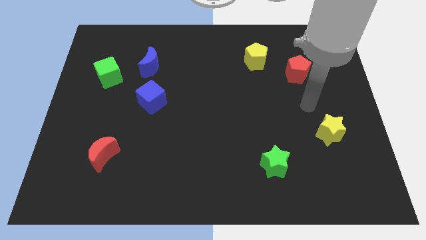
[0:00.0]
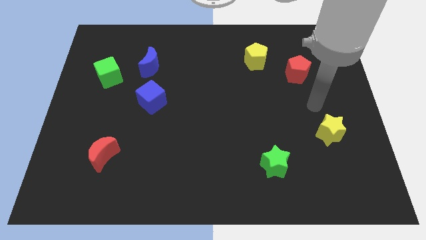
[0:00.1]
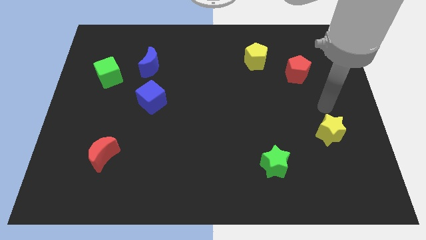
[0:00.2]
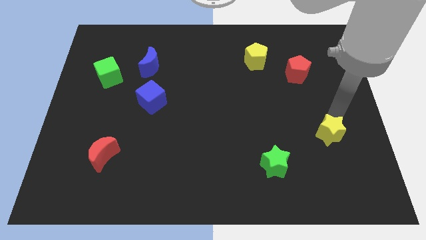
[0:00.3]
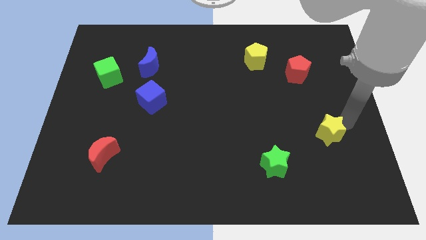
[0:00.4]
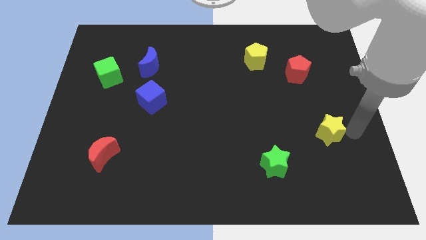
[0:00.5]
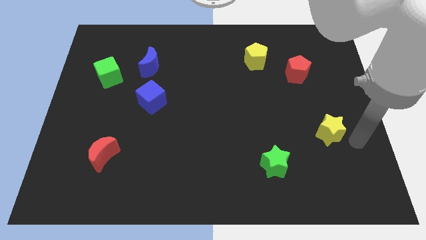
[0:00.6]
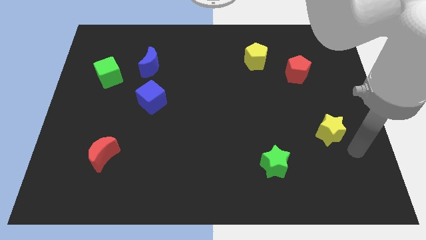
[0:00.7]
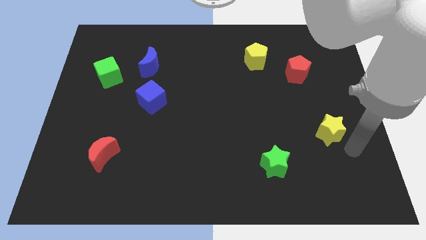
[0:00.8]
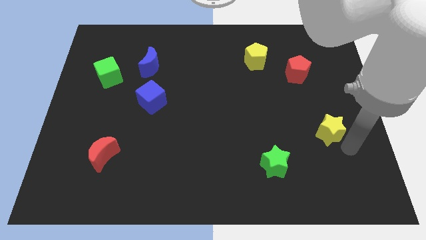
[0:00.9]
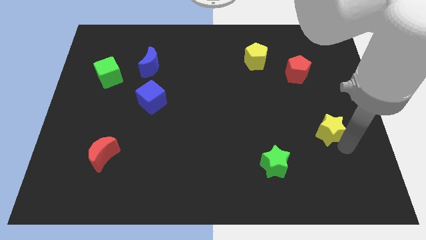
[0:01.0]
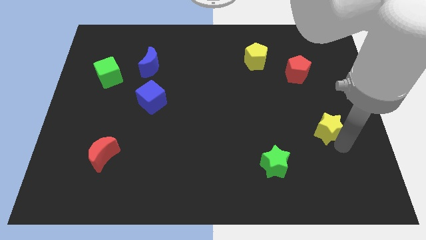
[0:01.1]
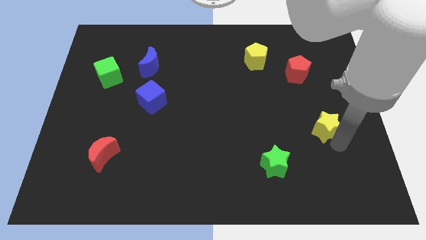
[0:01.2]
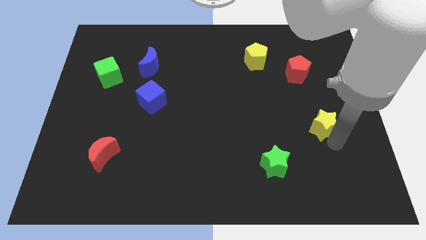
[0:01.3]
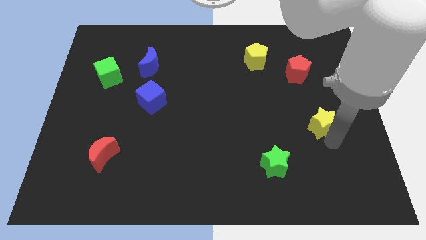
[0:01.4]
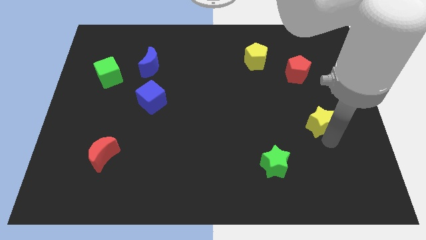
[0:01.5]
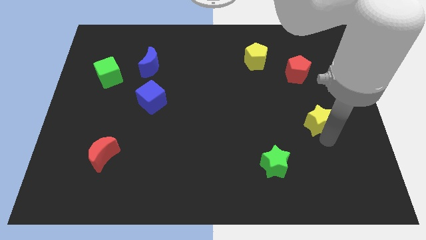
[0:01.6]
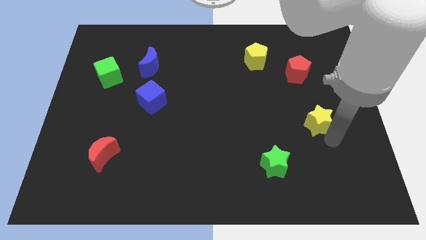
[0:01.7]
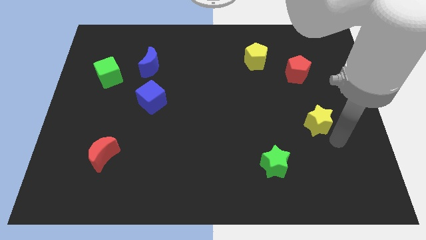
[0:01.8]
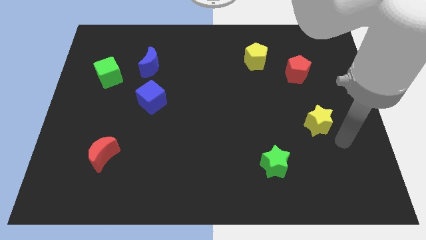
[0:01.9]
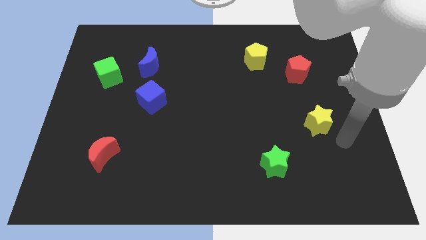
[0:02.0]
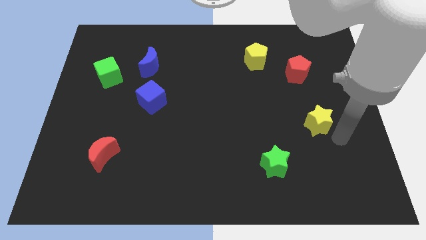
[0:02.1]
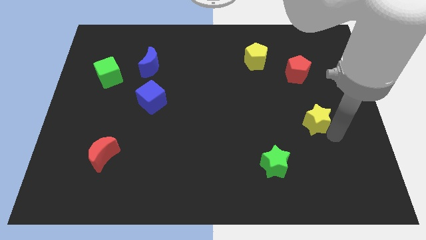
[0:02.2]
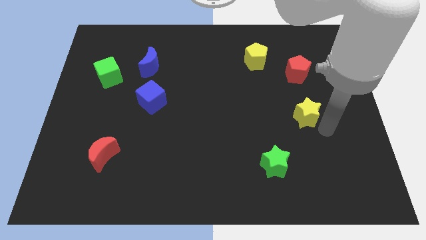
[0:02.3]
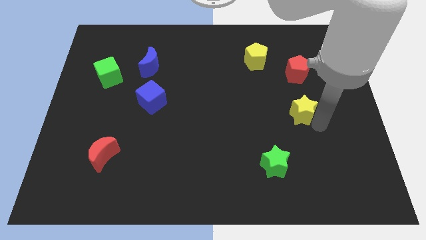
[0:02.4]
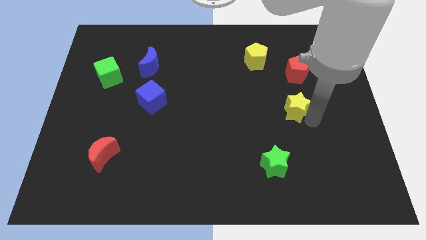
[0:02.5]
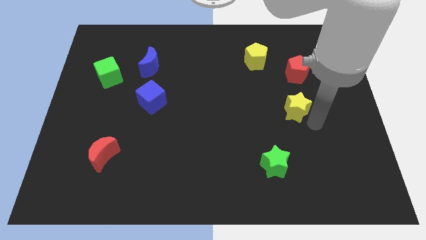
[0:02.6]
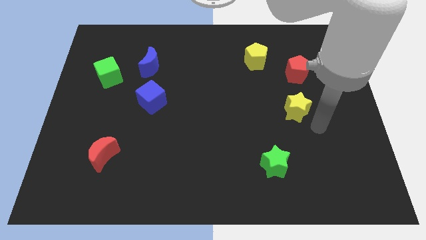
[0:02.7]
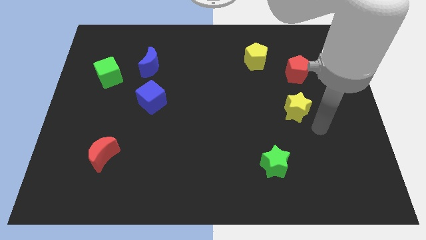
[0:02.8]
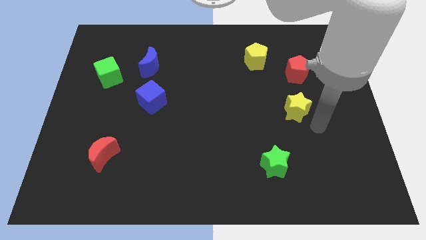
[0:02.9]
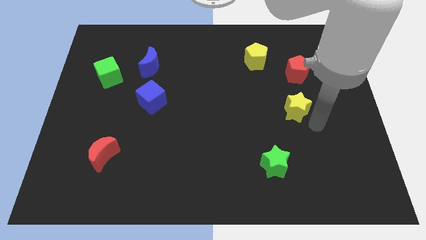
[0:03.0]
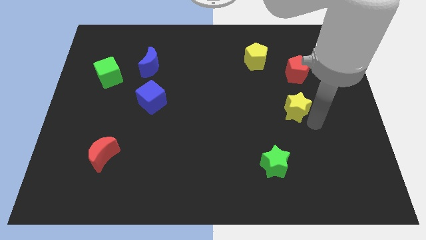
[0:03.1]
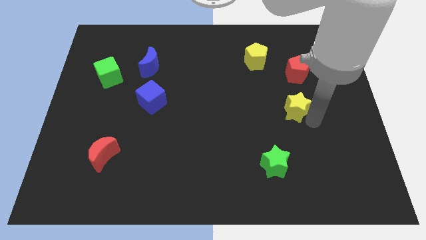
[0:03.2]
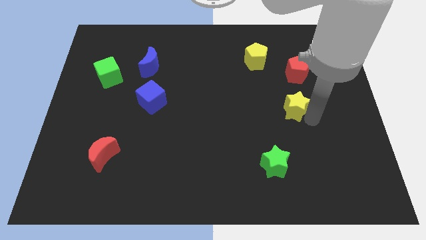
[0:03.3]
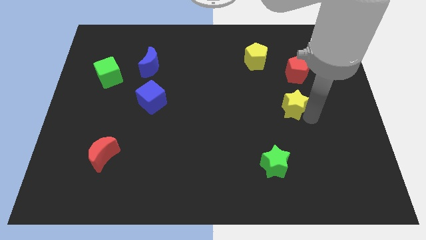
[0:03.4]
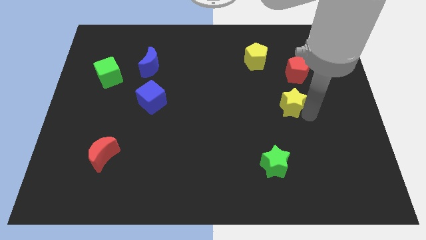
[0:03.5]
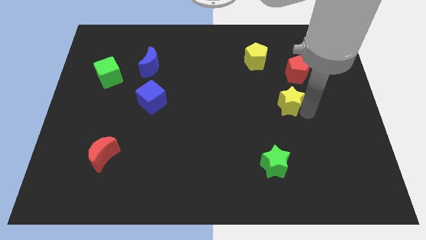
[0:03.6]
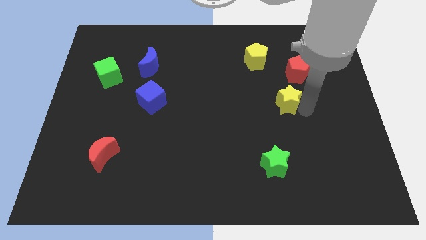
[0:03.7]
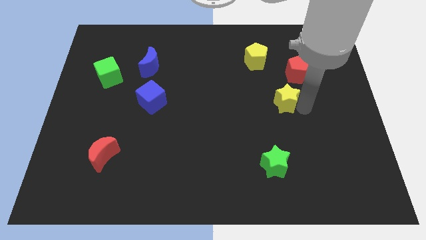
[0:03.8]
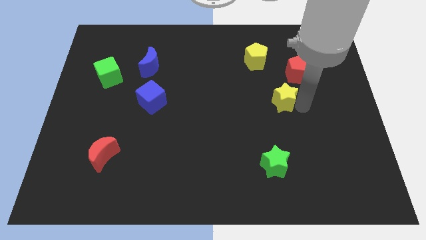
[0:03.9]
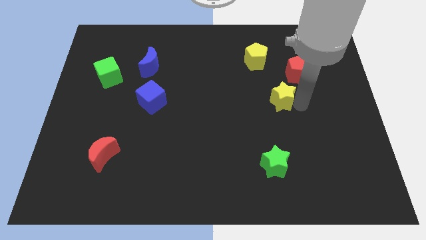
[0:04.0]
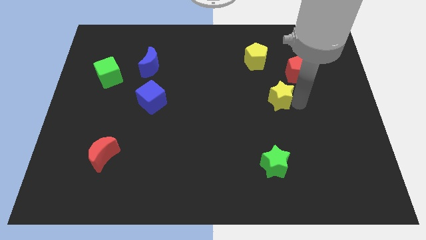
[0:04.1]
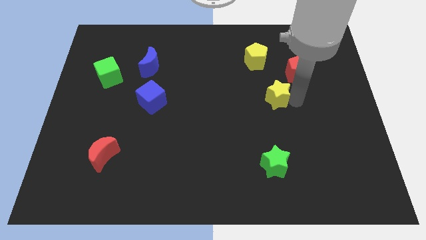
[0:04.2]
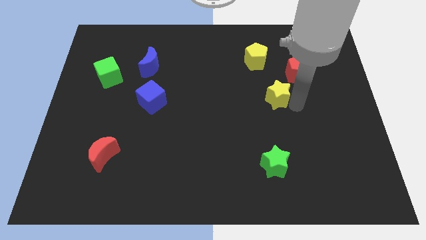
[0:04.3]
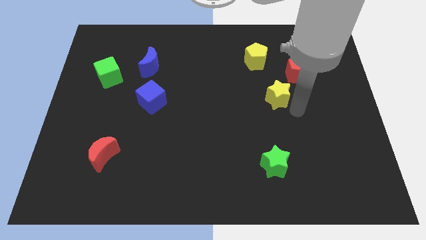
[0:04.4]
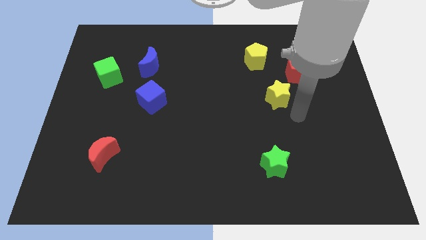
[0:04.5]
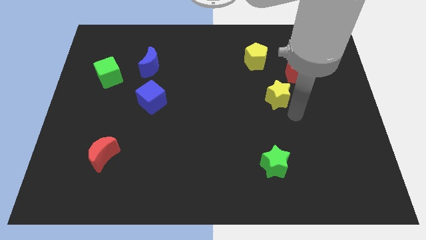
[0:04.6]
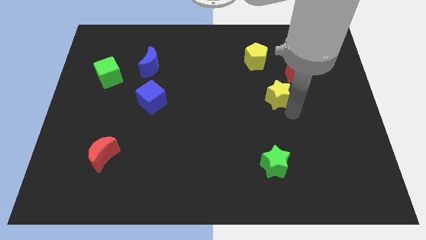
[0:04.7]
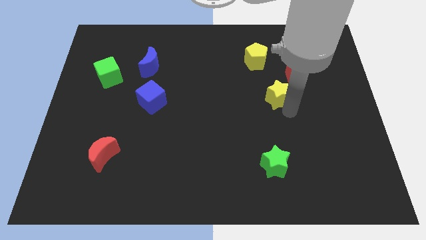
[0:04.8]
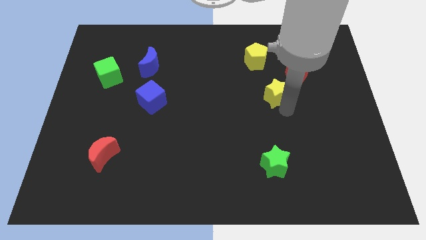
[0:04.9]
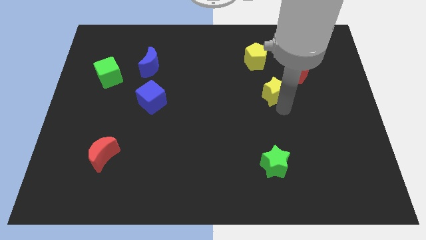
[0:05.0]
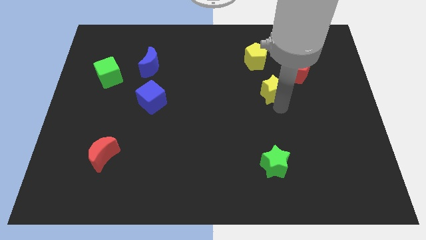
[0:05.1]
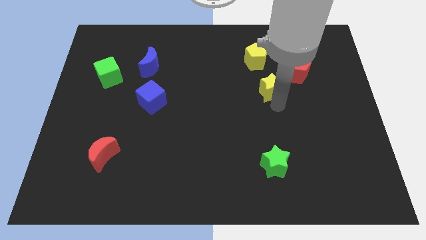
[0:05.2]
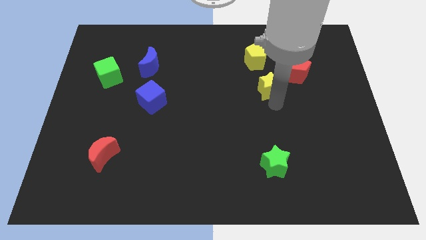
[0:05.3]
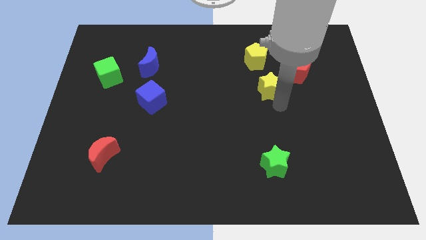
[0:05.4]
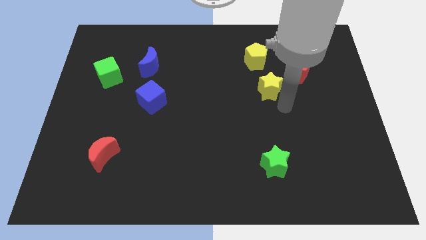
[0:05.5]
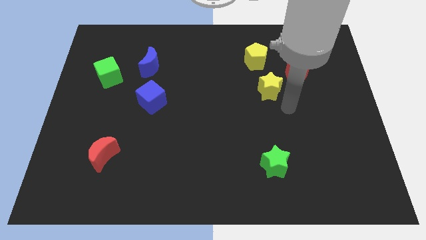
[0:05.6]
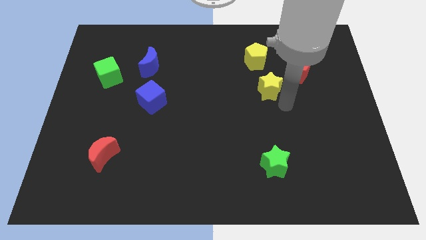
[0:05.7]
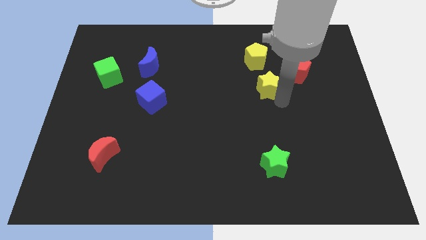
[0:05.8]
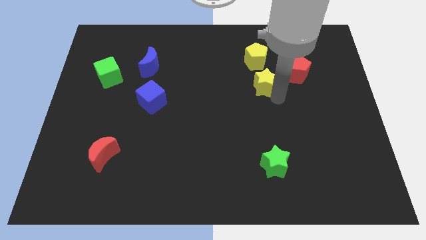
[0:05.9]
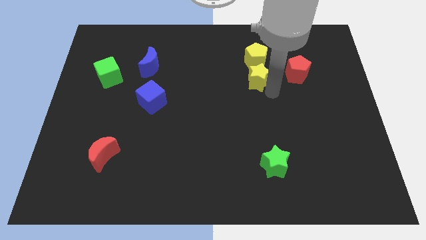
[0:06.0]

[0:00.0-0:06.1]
push the yellow star upwards and left diagonally

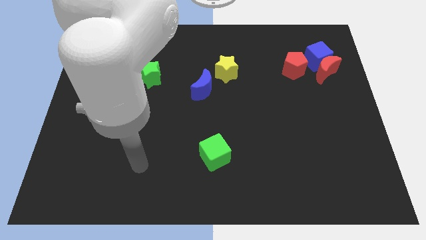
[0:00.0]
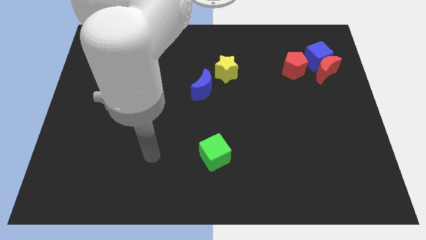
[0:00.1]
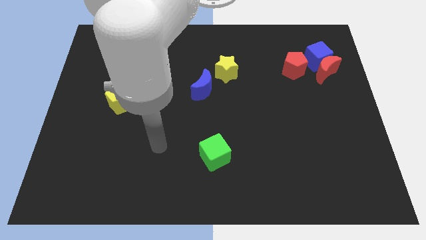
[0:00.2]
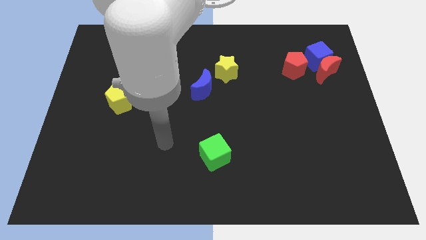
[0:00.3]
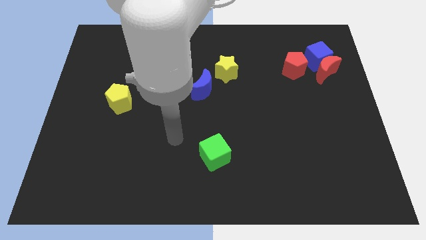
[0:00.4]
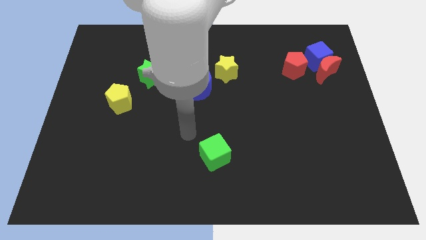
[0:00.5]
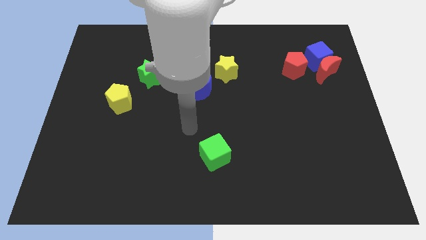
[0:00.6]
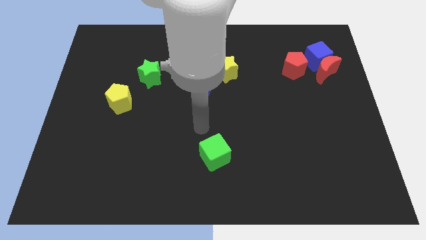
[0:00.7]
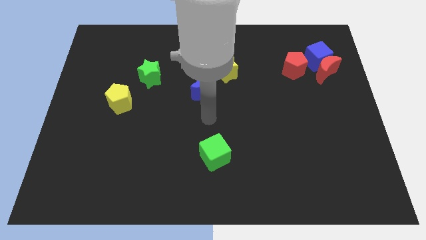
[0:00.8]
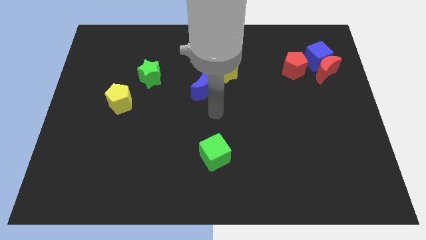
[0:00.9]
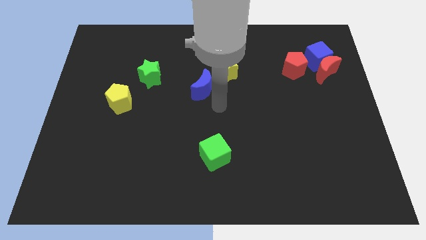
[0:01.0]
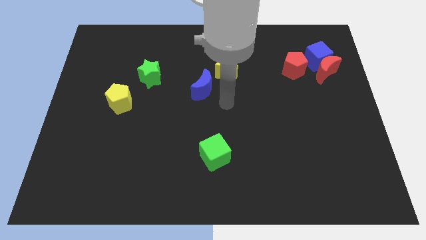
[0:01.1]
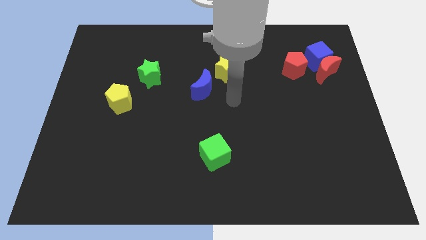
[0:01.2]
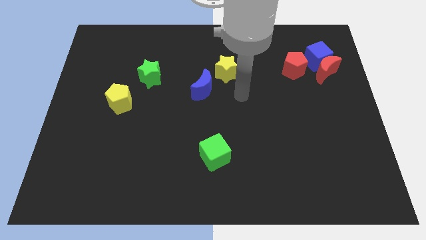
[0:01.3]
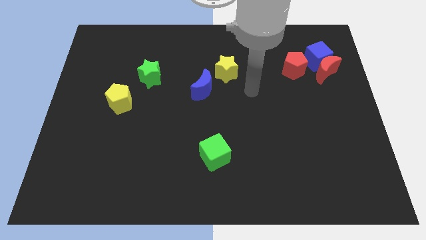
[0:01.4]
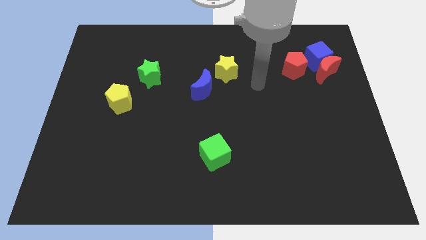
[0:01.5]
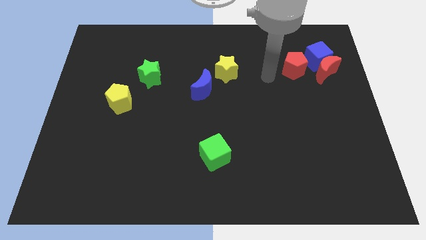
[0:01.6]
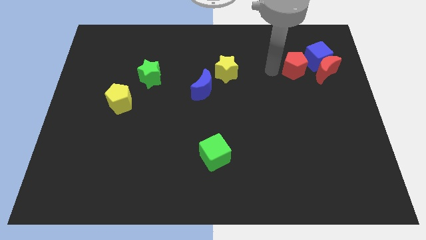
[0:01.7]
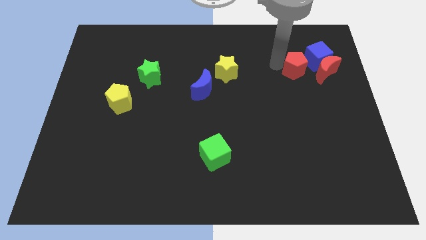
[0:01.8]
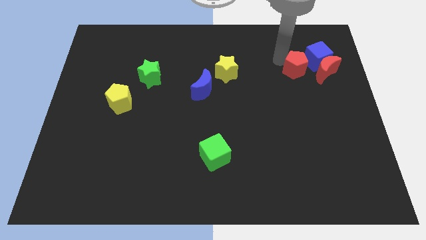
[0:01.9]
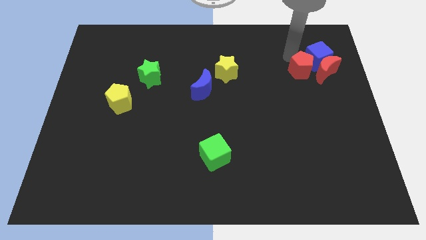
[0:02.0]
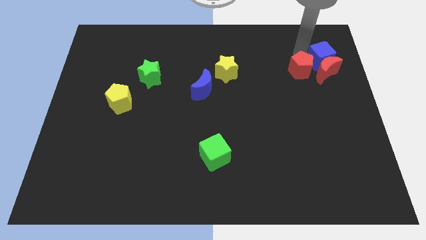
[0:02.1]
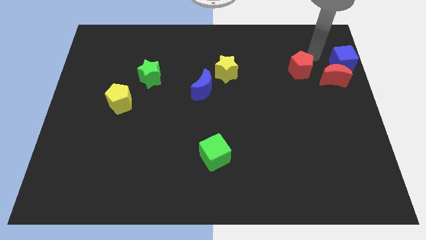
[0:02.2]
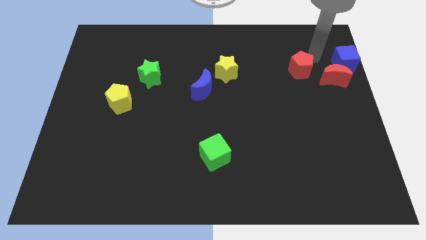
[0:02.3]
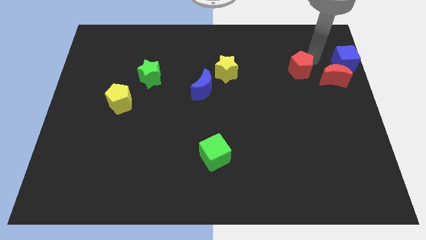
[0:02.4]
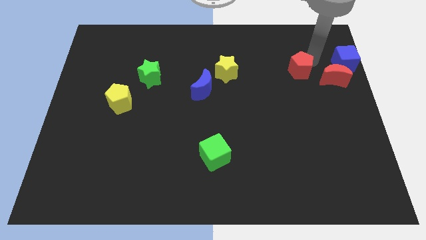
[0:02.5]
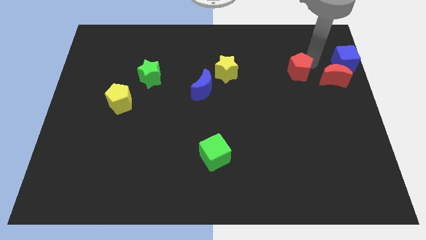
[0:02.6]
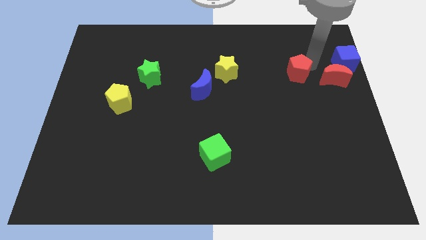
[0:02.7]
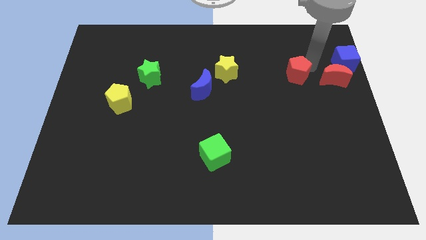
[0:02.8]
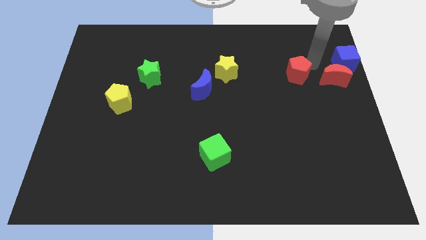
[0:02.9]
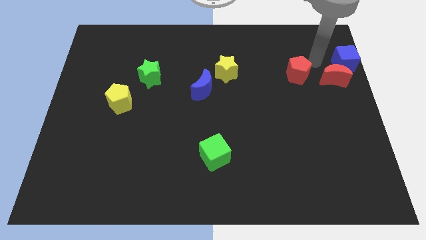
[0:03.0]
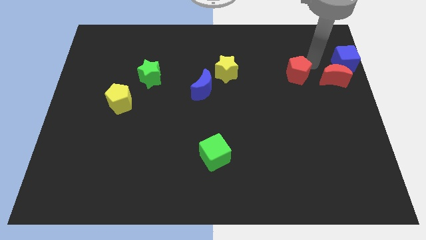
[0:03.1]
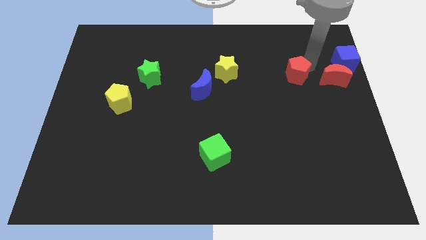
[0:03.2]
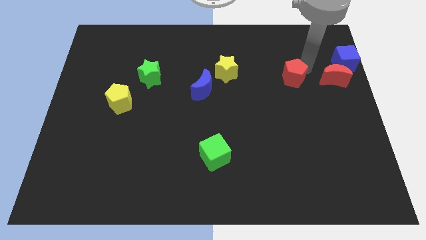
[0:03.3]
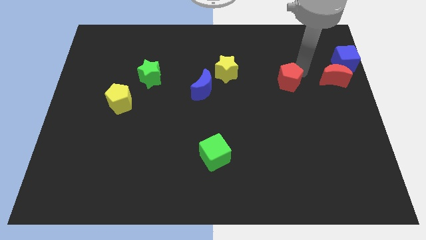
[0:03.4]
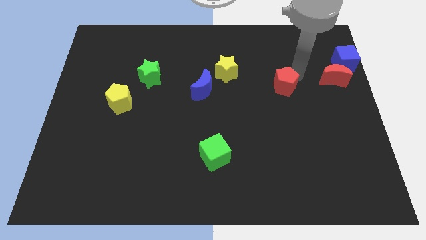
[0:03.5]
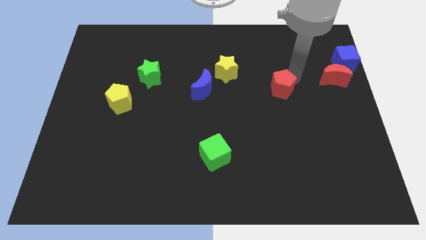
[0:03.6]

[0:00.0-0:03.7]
slightly move the red pentagon diagonally down and to the left
